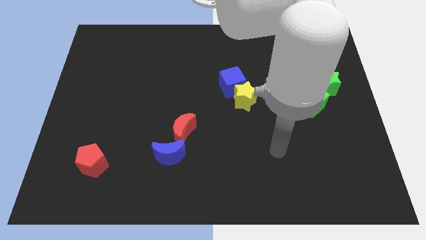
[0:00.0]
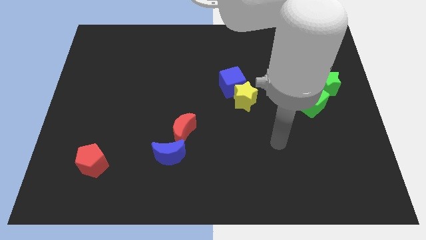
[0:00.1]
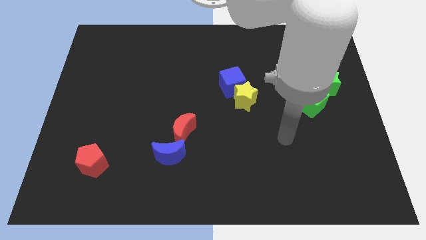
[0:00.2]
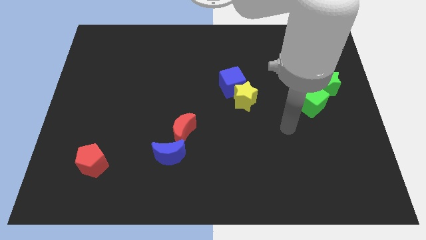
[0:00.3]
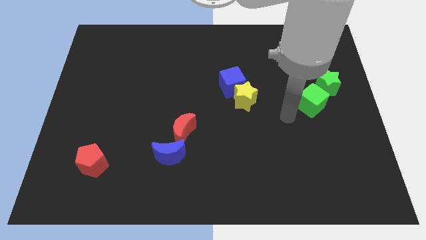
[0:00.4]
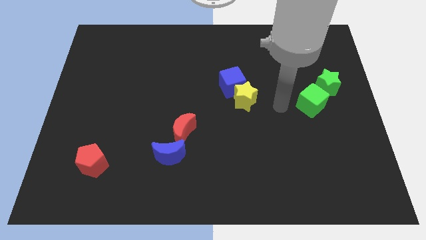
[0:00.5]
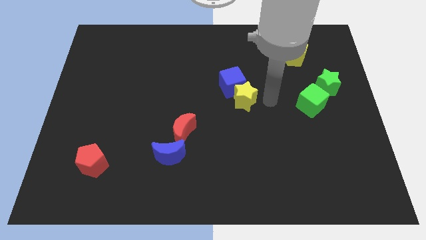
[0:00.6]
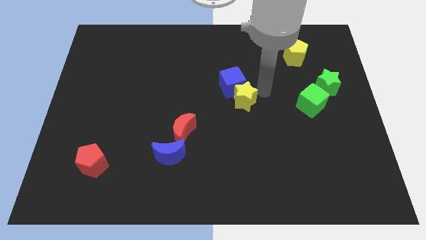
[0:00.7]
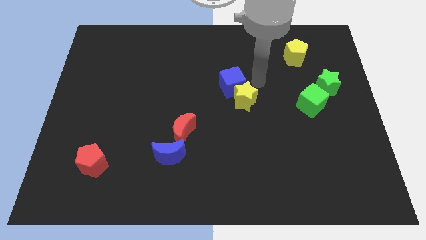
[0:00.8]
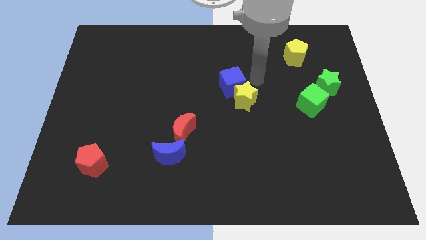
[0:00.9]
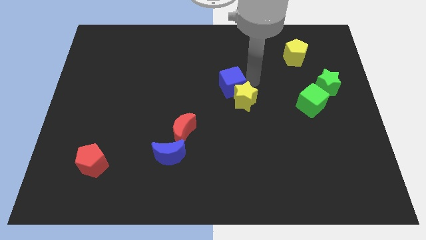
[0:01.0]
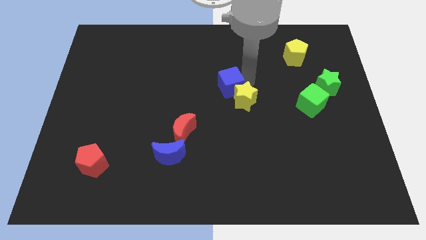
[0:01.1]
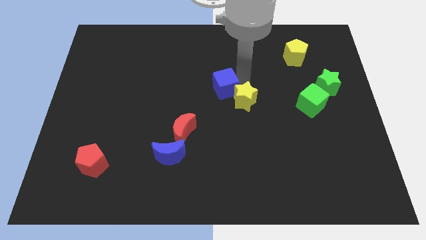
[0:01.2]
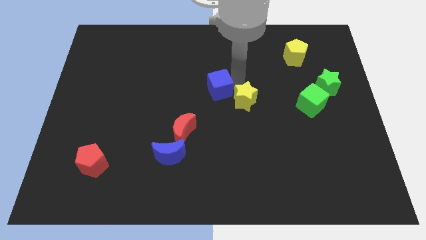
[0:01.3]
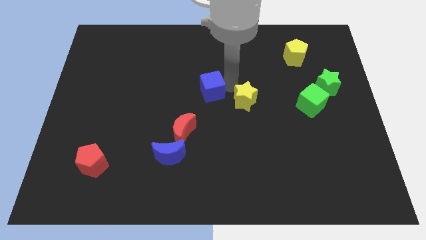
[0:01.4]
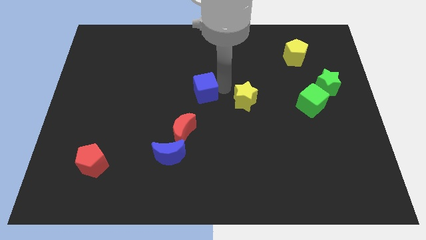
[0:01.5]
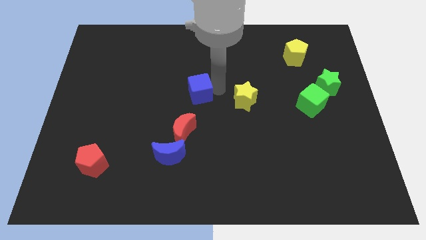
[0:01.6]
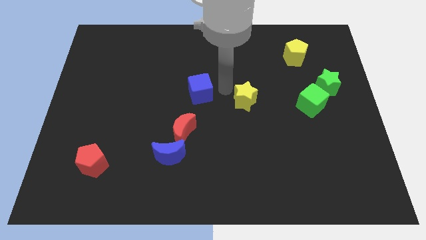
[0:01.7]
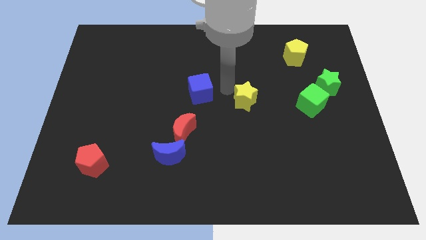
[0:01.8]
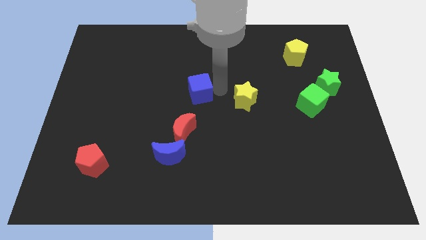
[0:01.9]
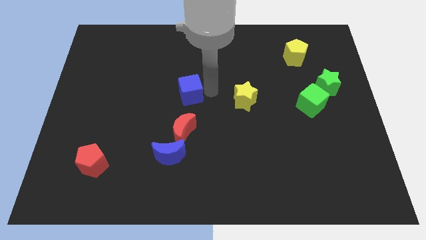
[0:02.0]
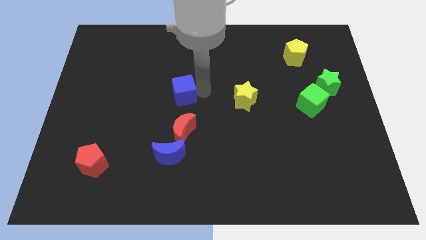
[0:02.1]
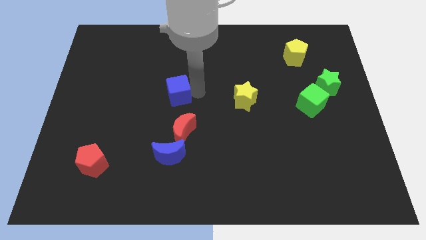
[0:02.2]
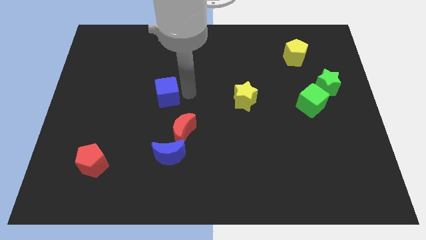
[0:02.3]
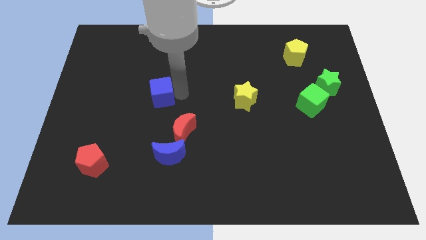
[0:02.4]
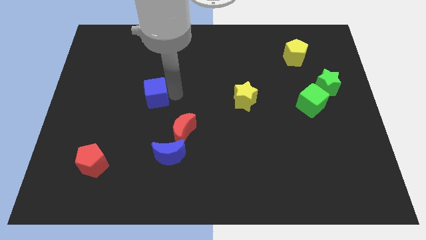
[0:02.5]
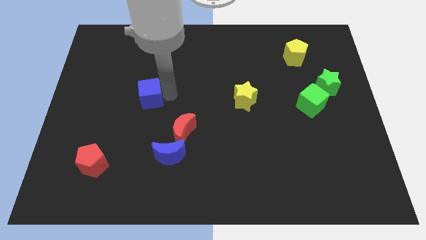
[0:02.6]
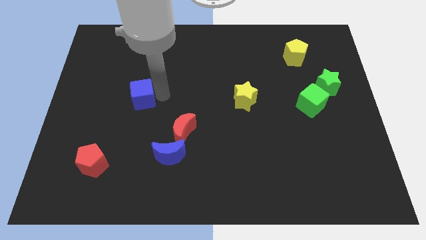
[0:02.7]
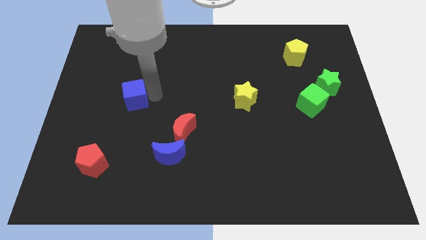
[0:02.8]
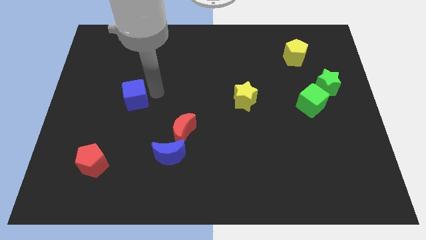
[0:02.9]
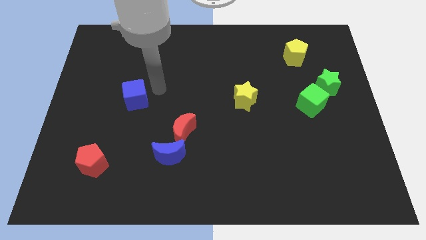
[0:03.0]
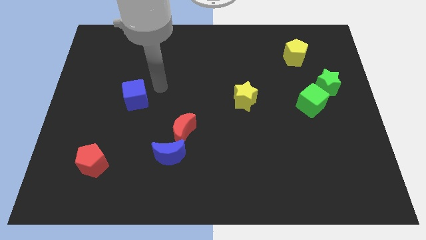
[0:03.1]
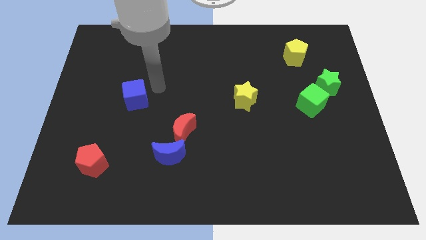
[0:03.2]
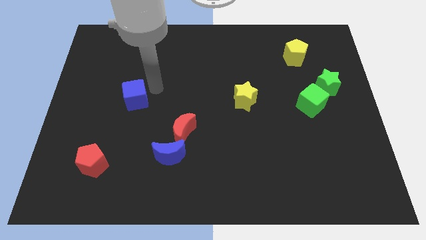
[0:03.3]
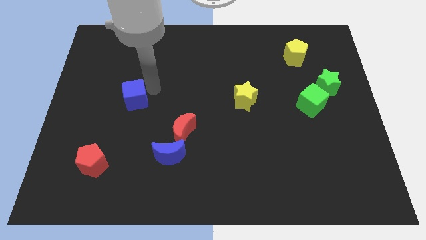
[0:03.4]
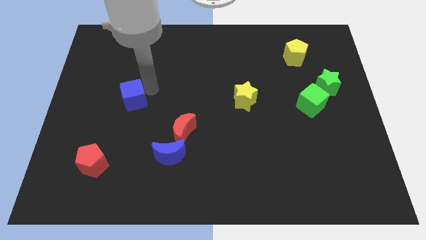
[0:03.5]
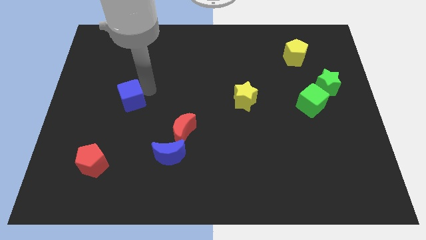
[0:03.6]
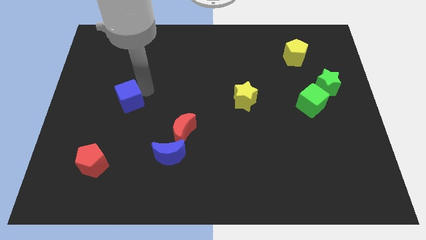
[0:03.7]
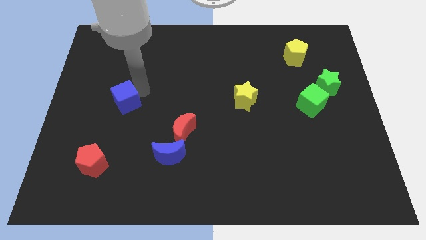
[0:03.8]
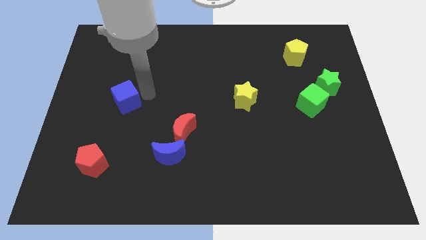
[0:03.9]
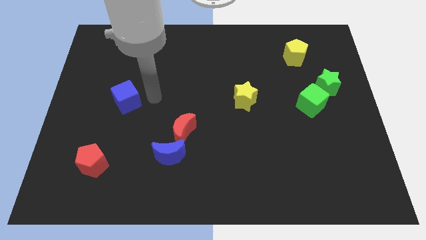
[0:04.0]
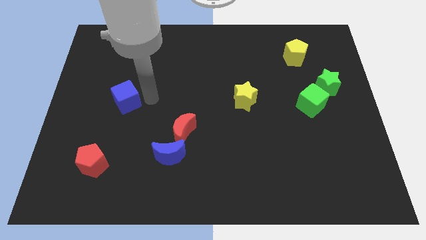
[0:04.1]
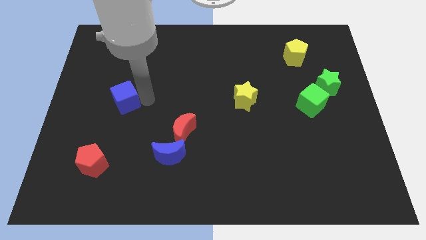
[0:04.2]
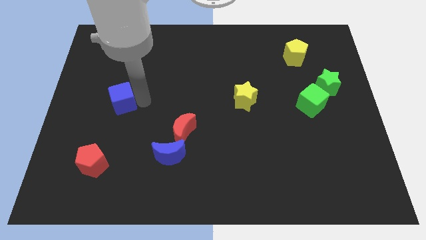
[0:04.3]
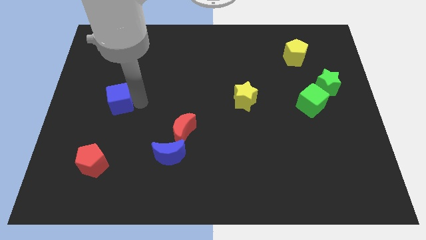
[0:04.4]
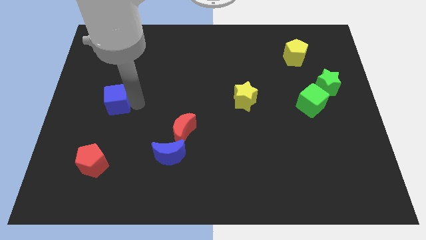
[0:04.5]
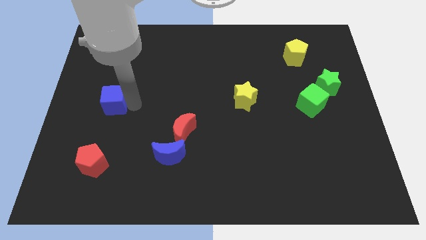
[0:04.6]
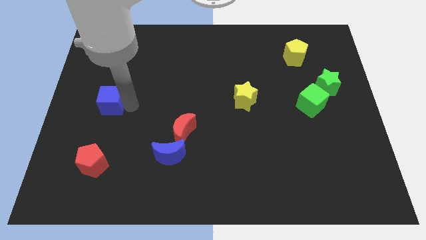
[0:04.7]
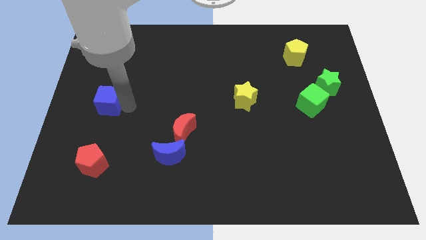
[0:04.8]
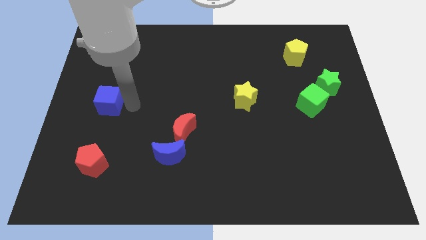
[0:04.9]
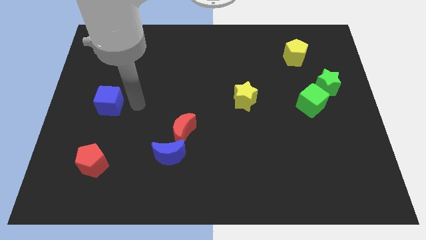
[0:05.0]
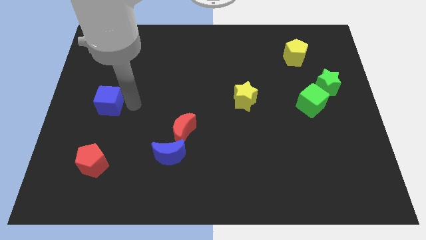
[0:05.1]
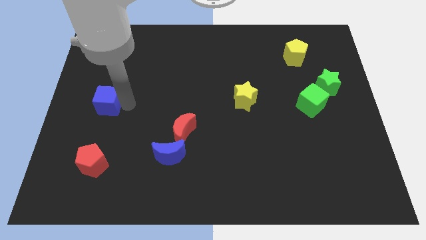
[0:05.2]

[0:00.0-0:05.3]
move the blue cube to the left side

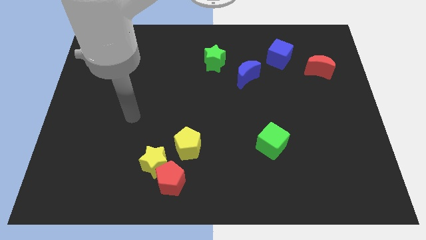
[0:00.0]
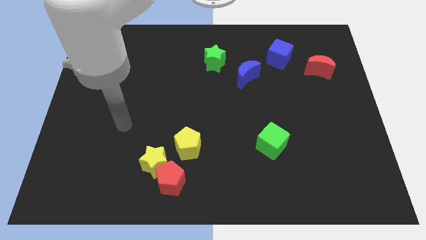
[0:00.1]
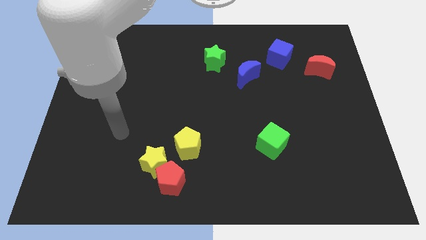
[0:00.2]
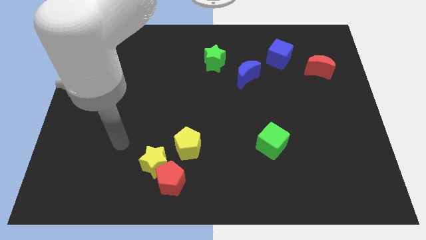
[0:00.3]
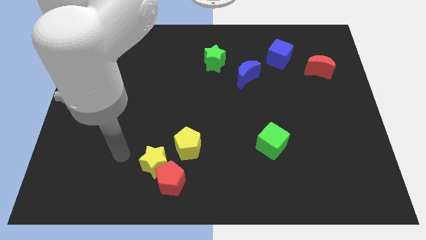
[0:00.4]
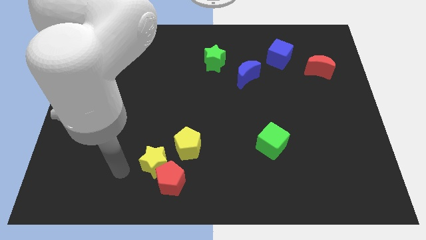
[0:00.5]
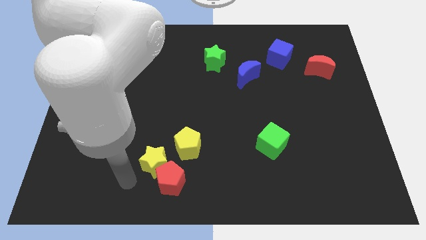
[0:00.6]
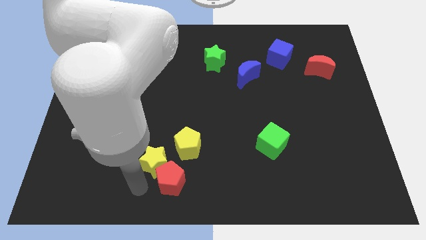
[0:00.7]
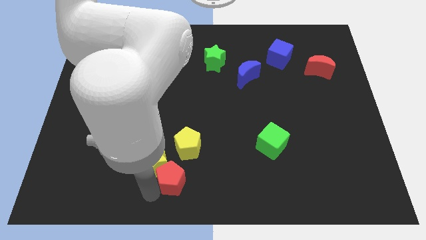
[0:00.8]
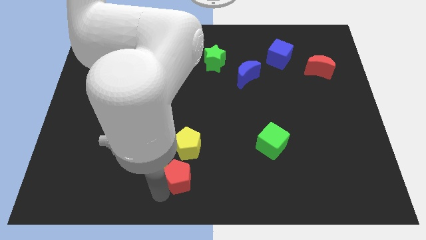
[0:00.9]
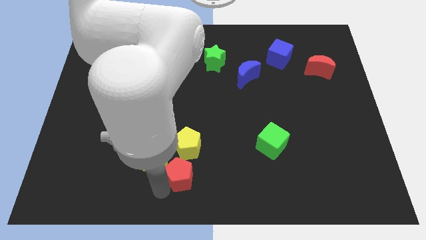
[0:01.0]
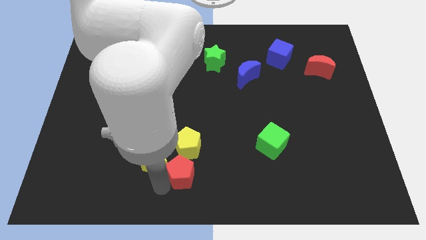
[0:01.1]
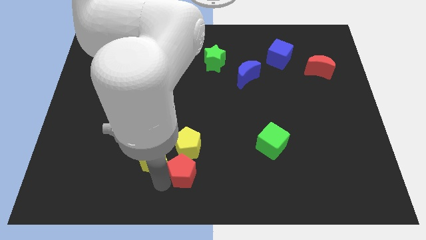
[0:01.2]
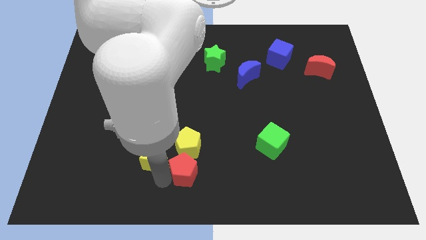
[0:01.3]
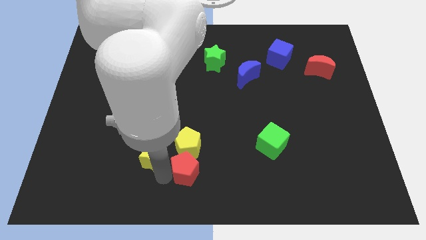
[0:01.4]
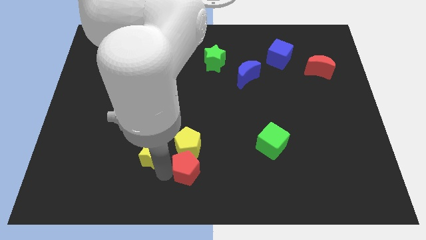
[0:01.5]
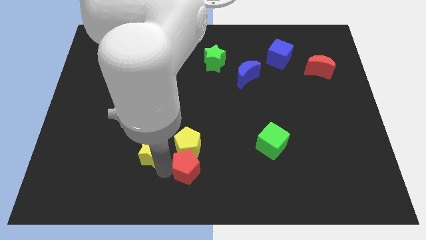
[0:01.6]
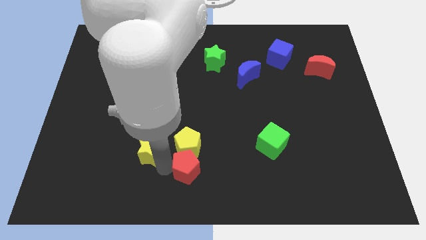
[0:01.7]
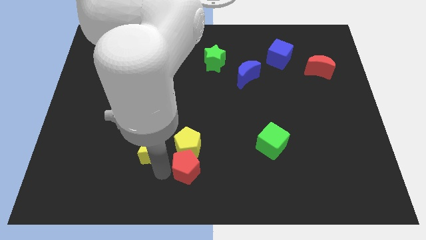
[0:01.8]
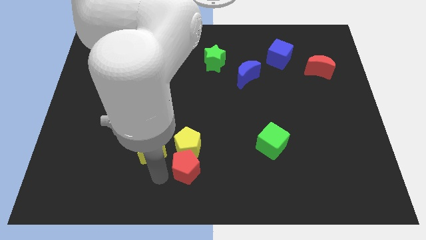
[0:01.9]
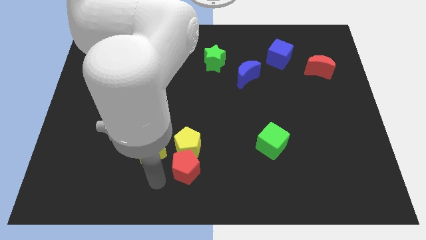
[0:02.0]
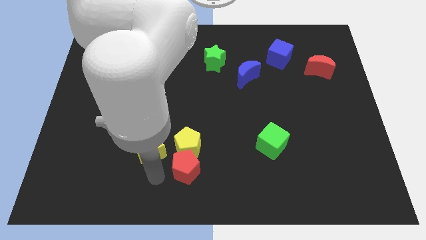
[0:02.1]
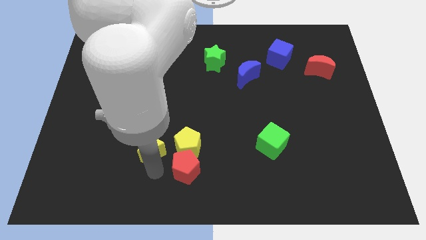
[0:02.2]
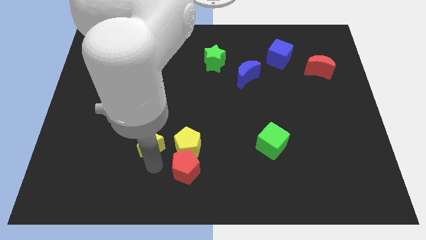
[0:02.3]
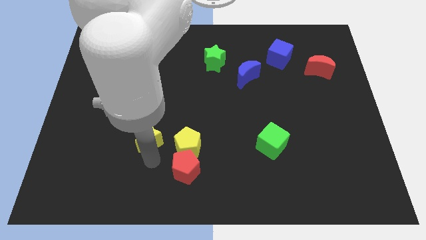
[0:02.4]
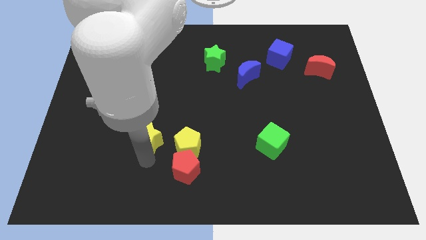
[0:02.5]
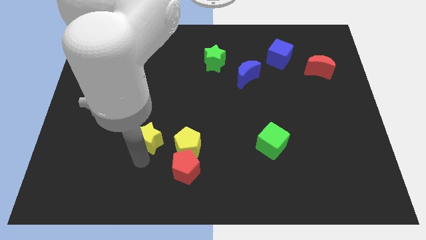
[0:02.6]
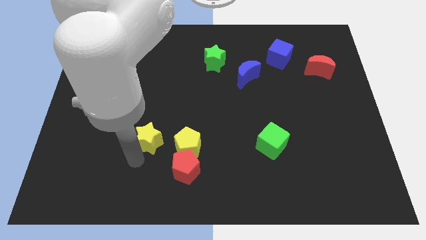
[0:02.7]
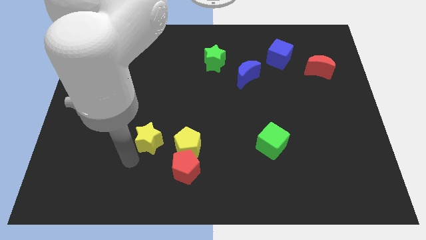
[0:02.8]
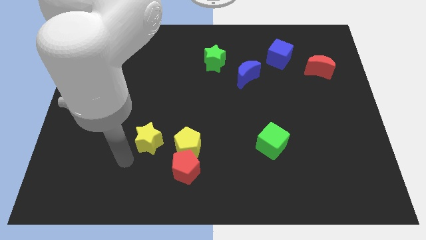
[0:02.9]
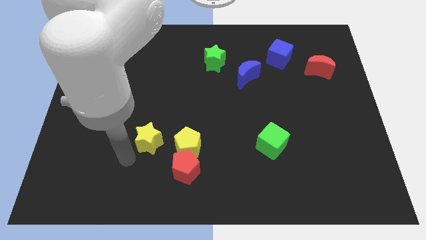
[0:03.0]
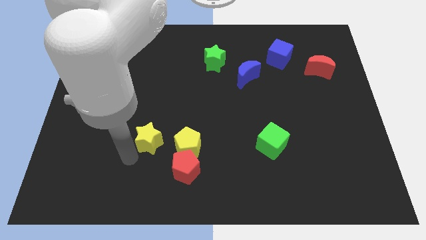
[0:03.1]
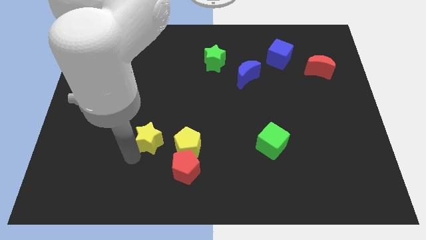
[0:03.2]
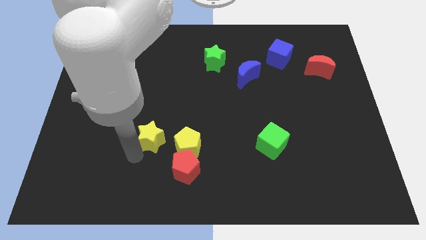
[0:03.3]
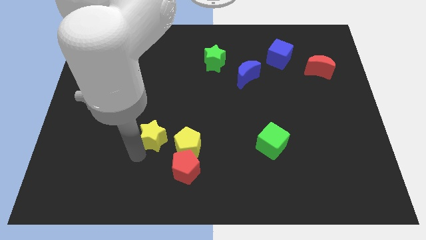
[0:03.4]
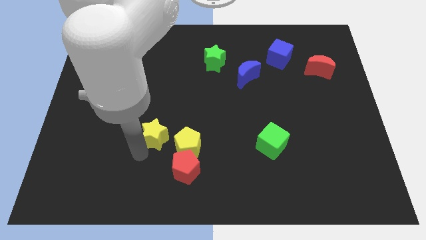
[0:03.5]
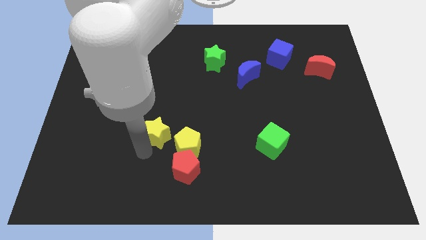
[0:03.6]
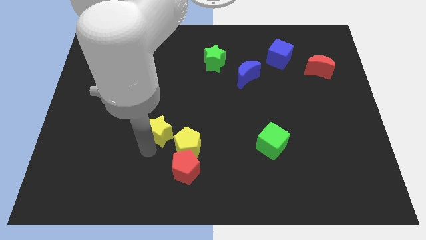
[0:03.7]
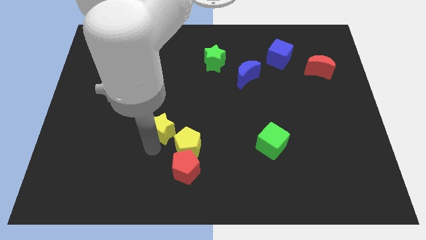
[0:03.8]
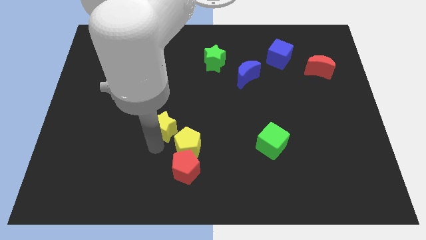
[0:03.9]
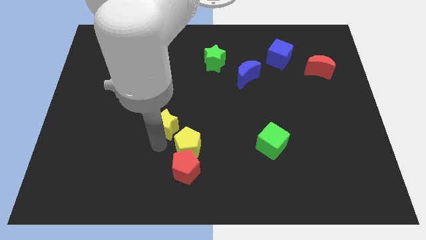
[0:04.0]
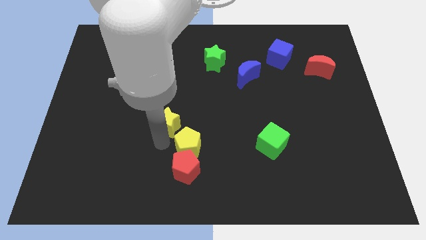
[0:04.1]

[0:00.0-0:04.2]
push the yellow star to the center
